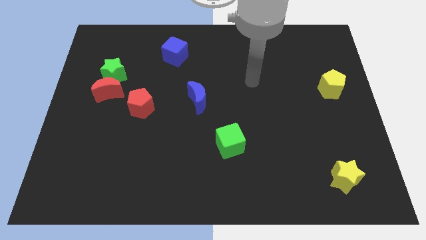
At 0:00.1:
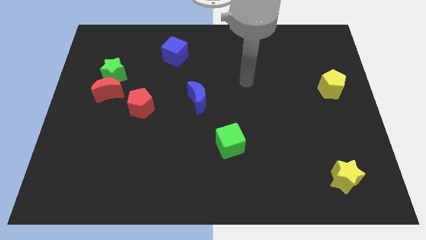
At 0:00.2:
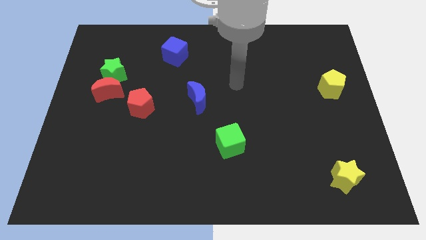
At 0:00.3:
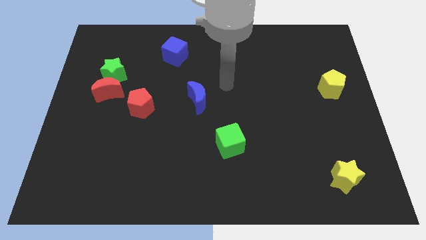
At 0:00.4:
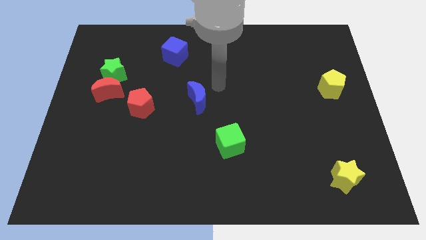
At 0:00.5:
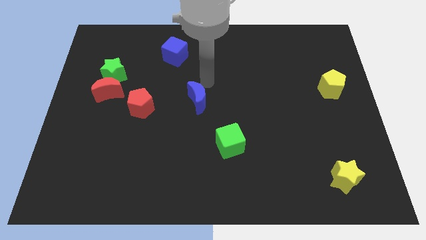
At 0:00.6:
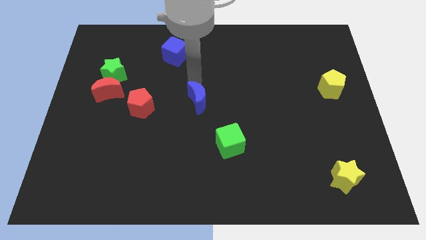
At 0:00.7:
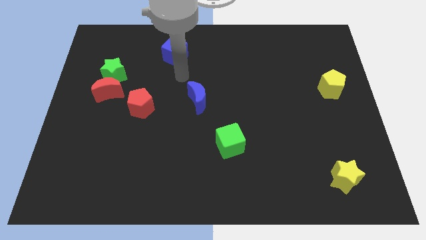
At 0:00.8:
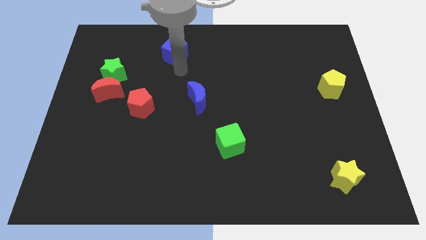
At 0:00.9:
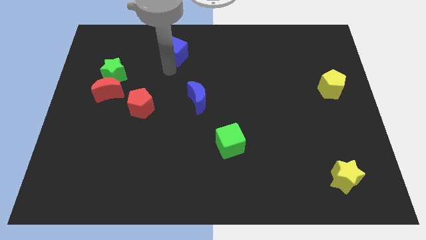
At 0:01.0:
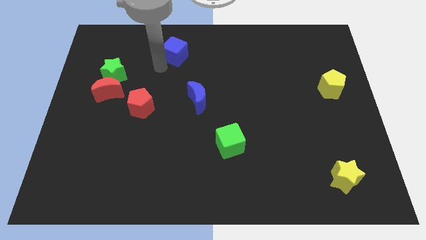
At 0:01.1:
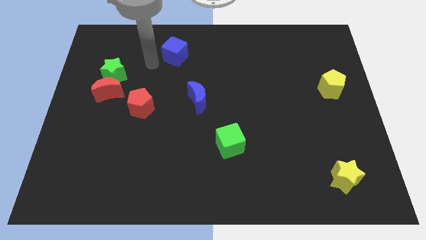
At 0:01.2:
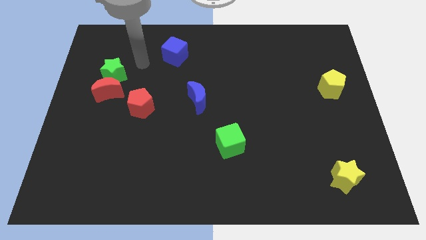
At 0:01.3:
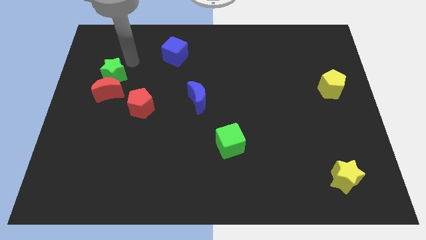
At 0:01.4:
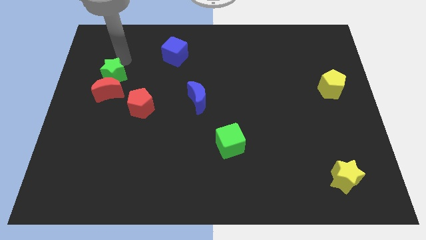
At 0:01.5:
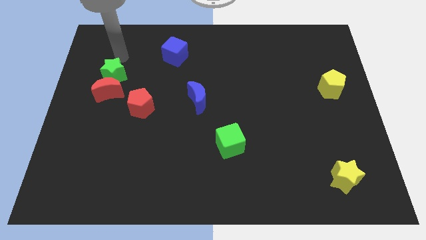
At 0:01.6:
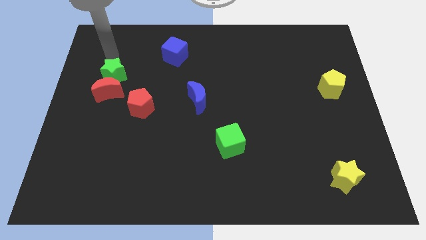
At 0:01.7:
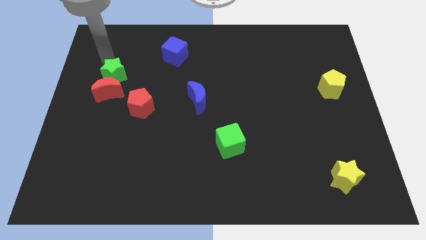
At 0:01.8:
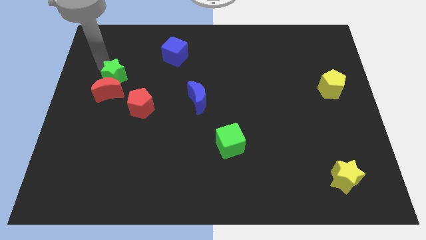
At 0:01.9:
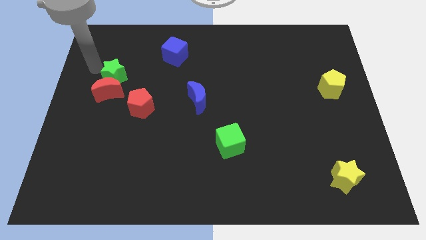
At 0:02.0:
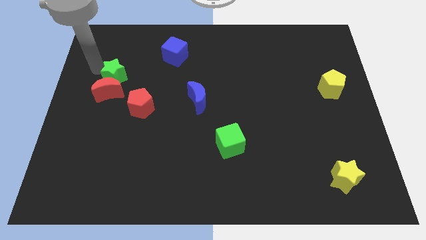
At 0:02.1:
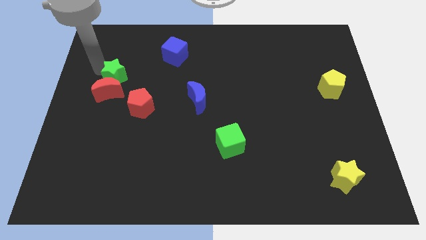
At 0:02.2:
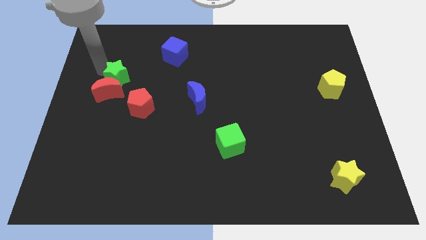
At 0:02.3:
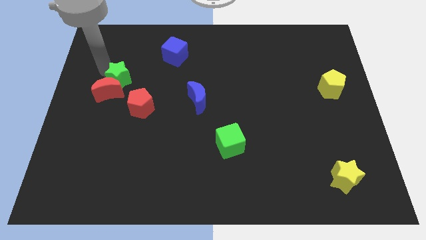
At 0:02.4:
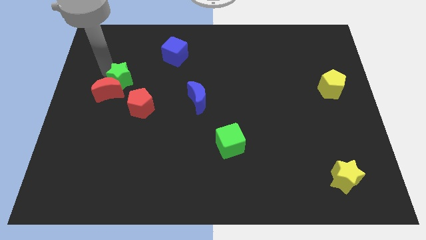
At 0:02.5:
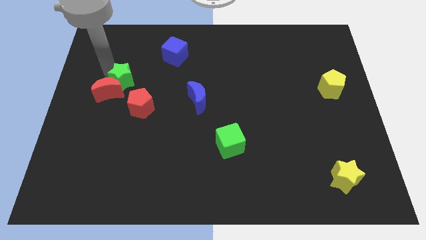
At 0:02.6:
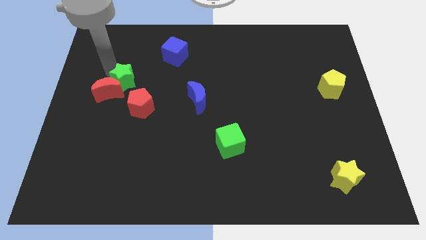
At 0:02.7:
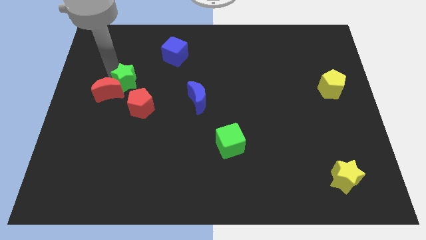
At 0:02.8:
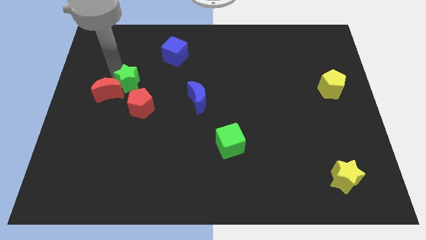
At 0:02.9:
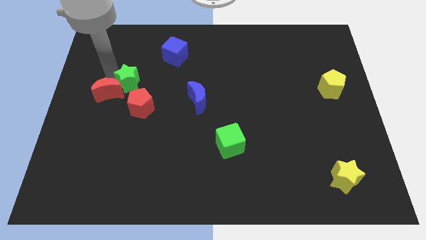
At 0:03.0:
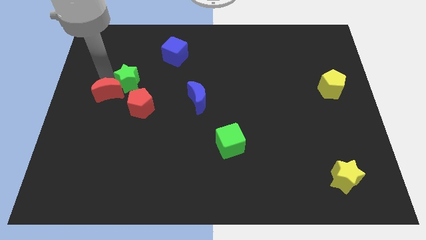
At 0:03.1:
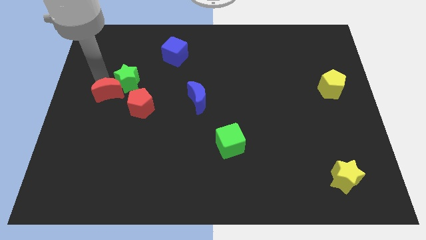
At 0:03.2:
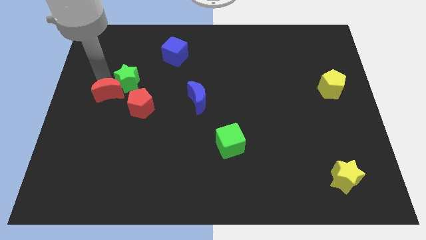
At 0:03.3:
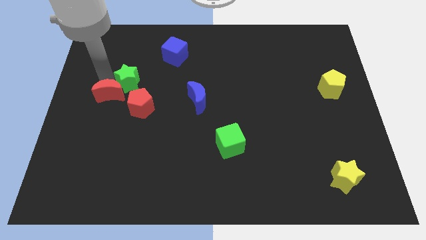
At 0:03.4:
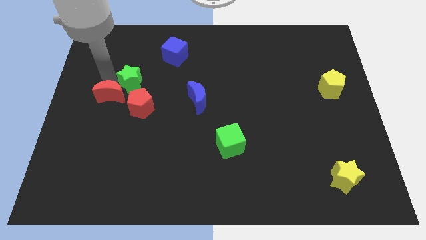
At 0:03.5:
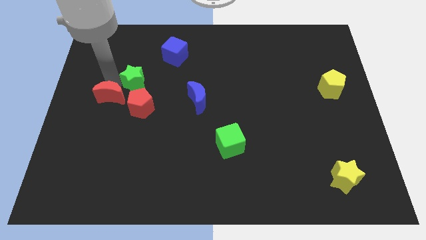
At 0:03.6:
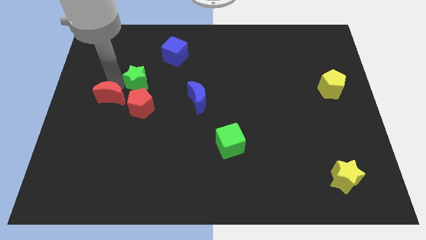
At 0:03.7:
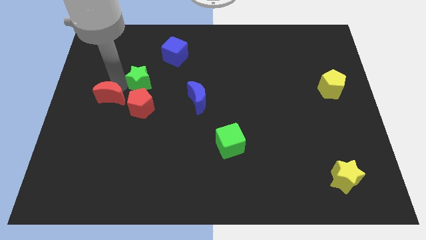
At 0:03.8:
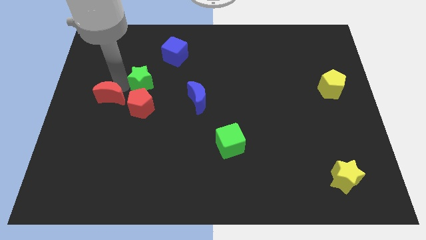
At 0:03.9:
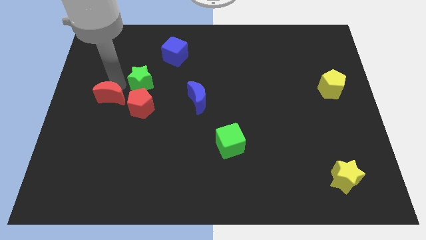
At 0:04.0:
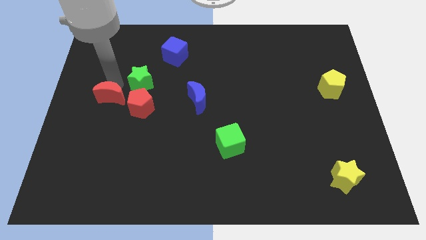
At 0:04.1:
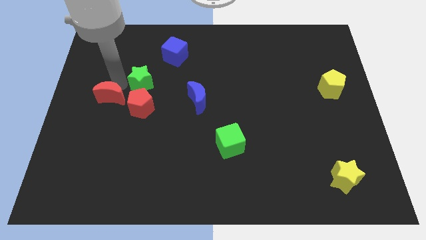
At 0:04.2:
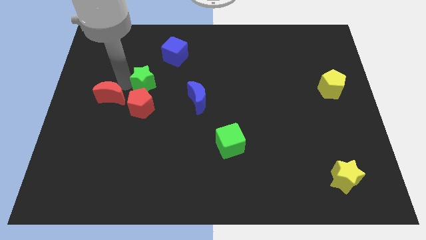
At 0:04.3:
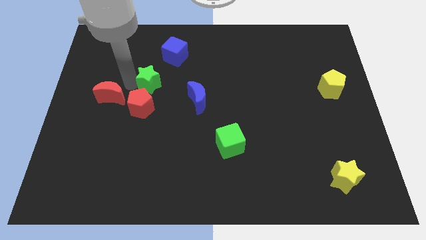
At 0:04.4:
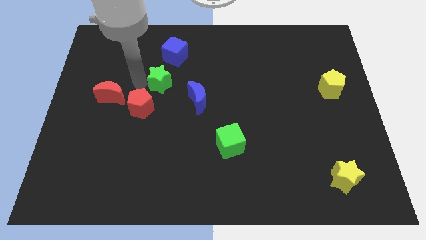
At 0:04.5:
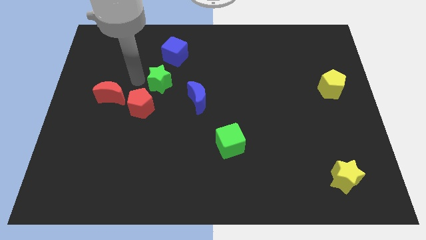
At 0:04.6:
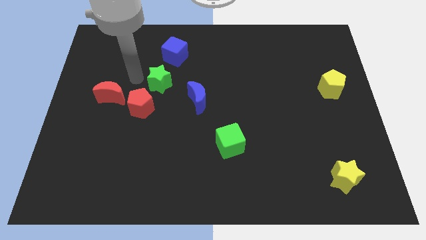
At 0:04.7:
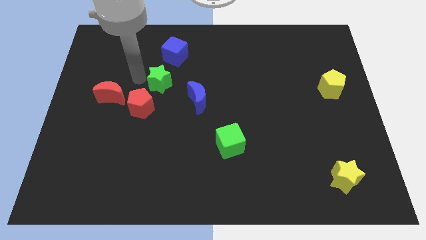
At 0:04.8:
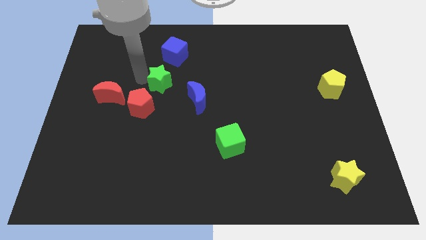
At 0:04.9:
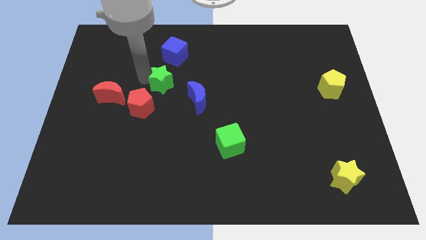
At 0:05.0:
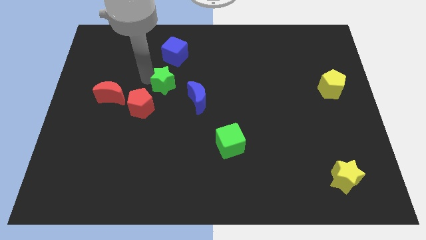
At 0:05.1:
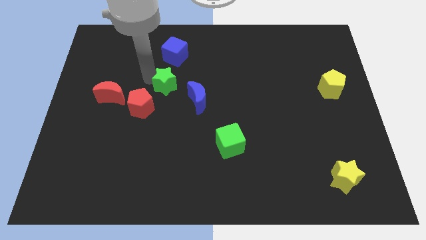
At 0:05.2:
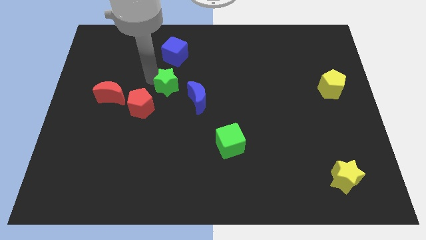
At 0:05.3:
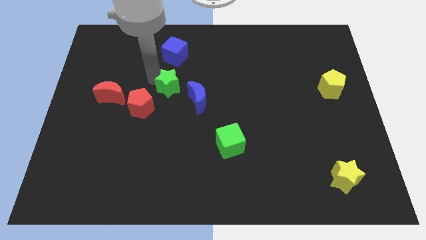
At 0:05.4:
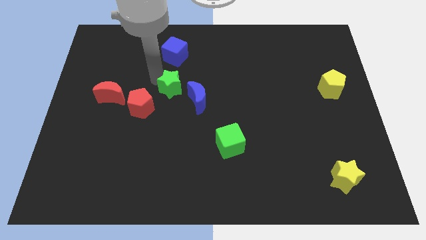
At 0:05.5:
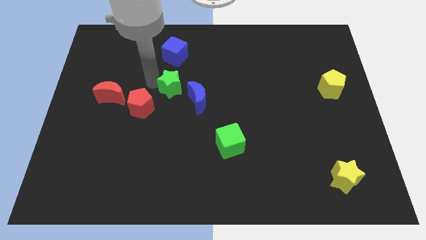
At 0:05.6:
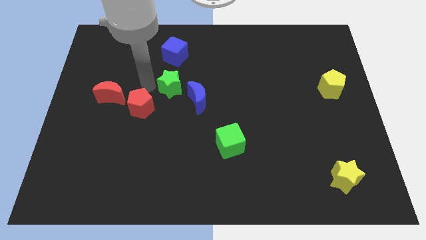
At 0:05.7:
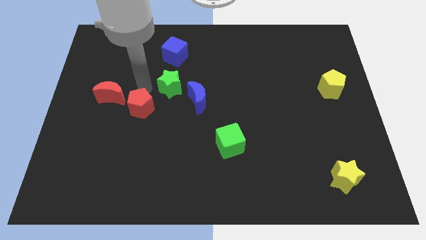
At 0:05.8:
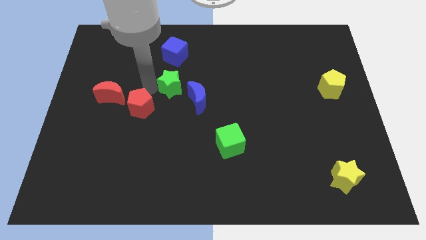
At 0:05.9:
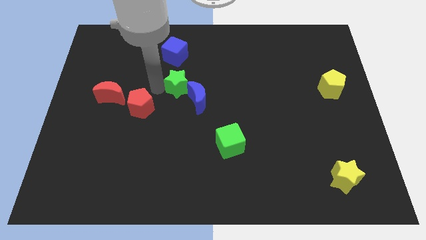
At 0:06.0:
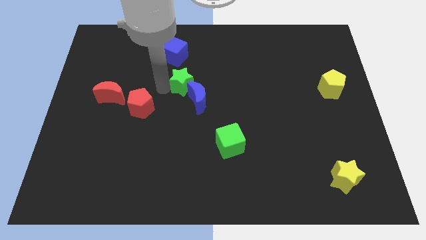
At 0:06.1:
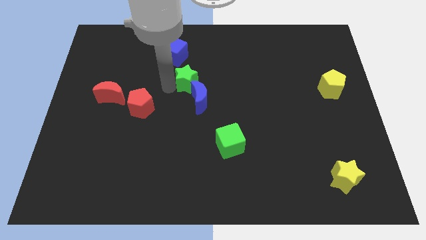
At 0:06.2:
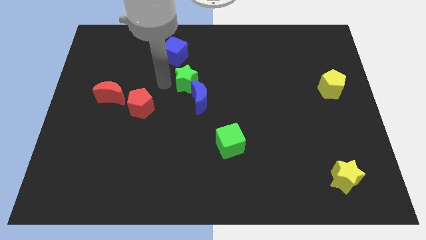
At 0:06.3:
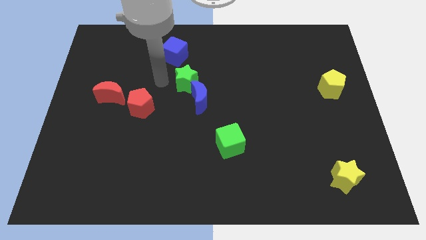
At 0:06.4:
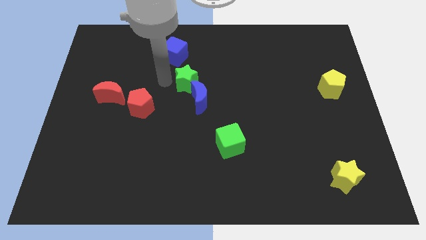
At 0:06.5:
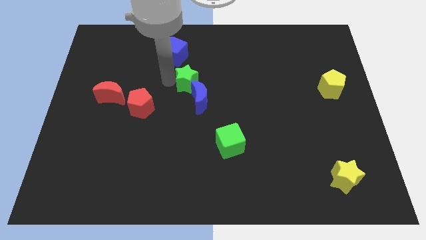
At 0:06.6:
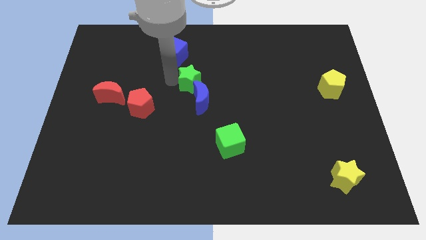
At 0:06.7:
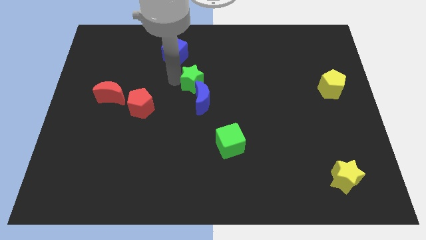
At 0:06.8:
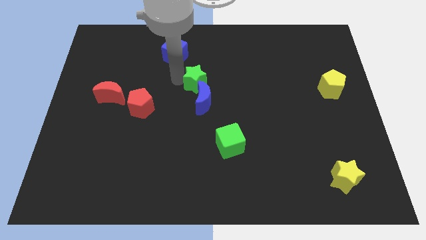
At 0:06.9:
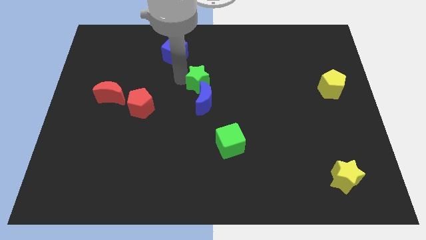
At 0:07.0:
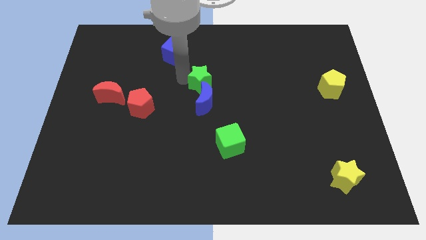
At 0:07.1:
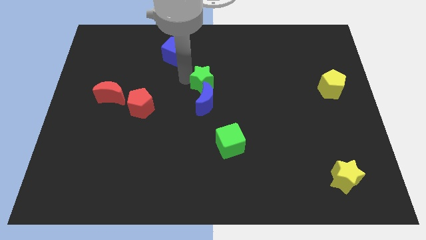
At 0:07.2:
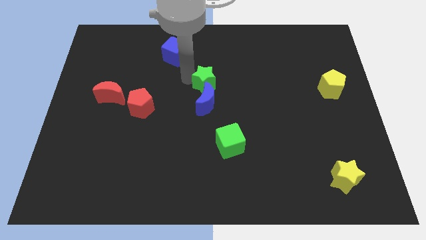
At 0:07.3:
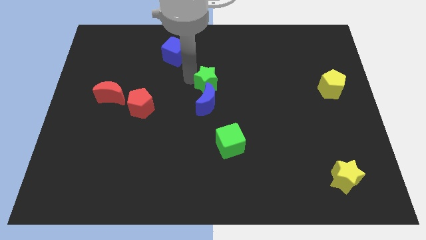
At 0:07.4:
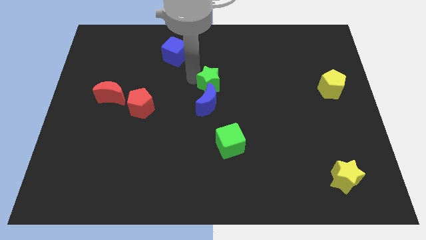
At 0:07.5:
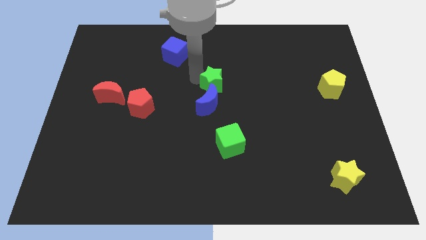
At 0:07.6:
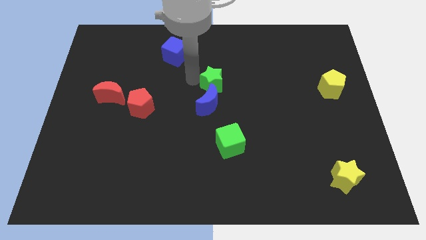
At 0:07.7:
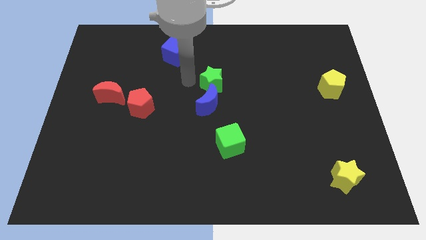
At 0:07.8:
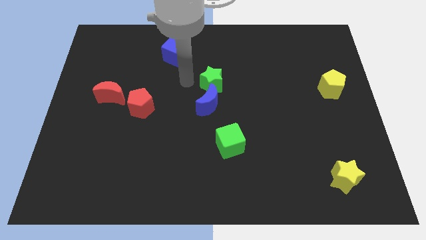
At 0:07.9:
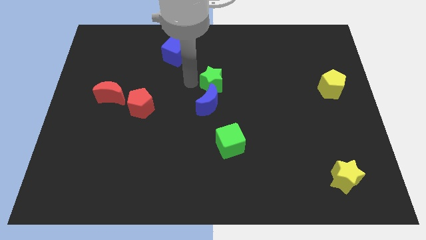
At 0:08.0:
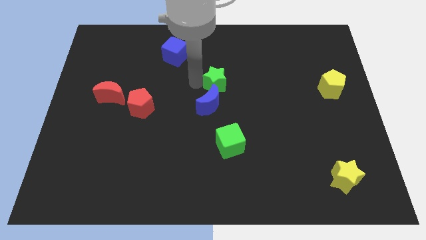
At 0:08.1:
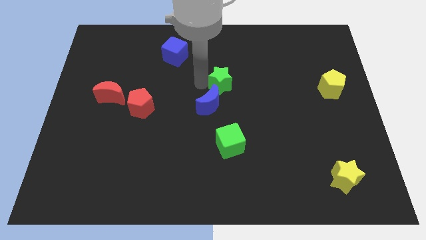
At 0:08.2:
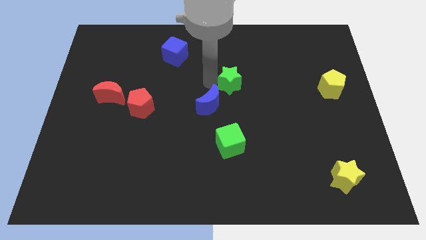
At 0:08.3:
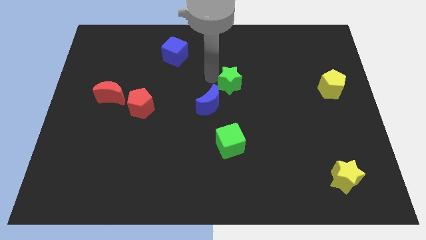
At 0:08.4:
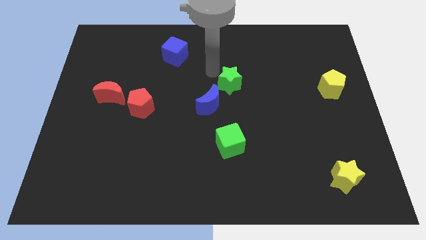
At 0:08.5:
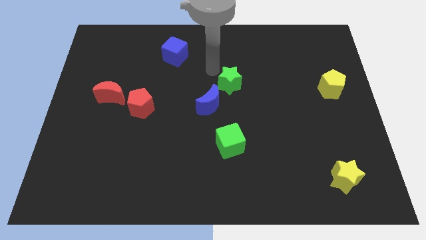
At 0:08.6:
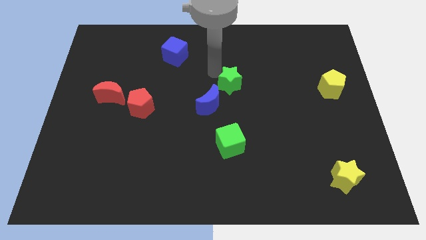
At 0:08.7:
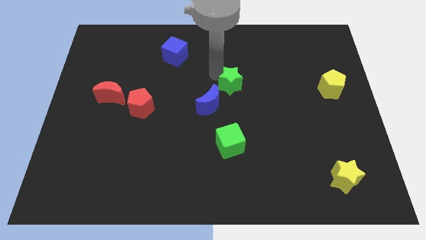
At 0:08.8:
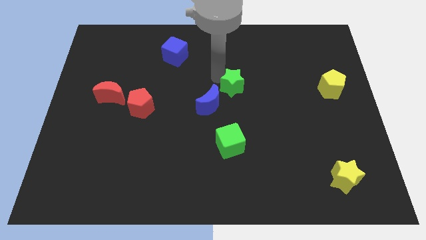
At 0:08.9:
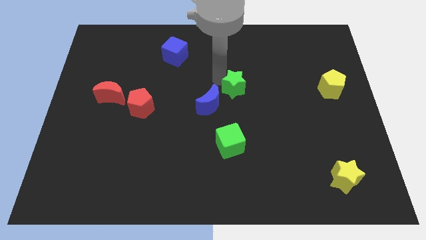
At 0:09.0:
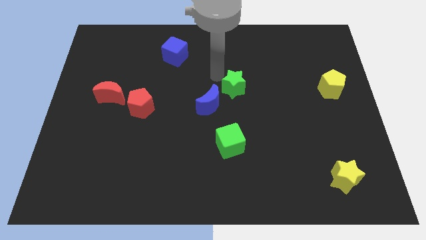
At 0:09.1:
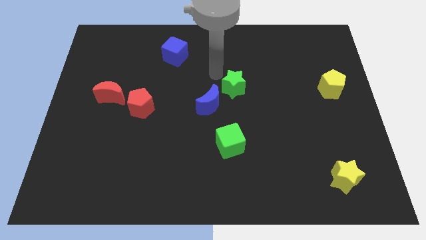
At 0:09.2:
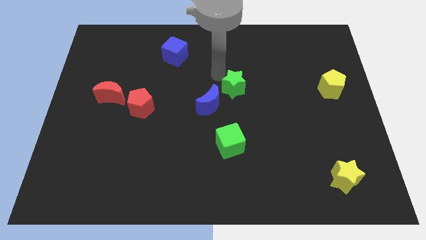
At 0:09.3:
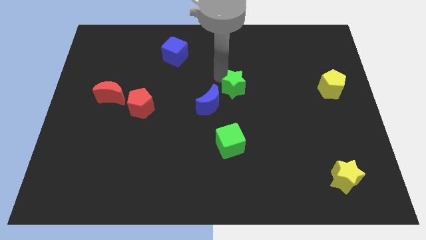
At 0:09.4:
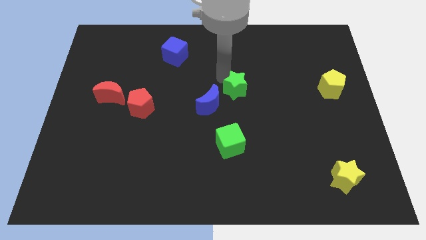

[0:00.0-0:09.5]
put the green star to the right of the blue moon
